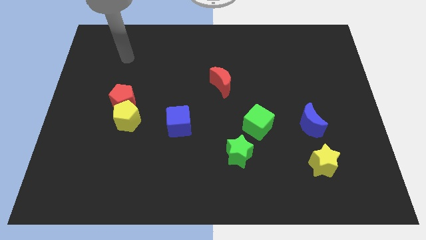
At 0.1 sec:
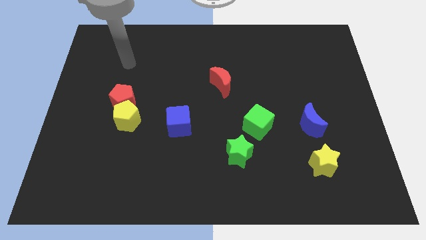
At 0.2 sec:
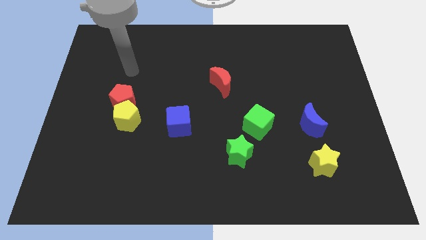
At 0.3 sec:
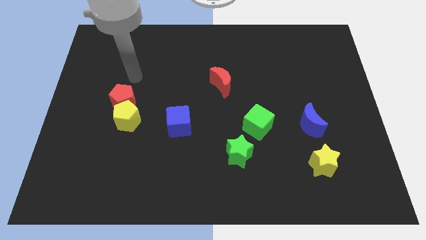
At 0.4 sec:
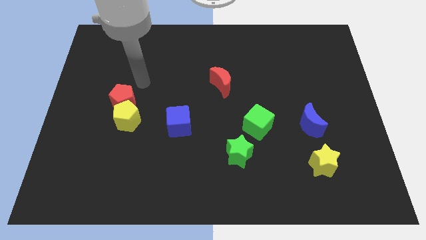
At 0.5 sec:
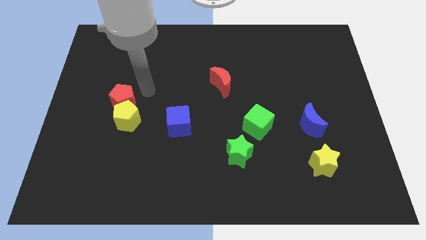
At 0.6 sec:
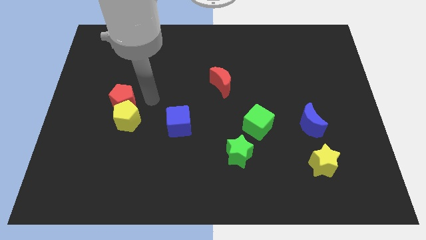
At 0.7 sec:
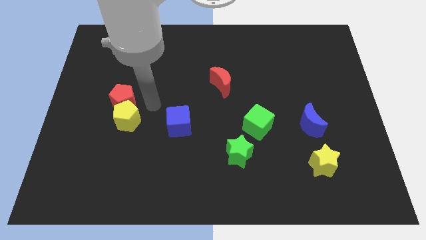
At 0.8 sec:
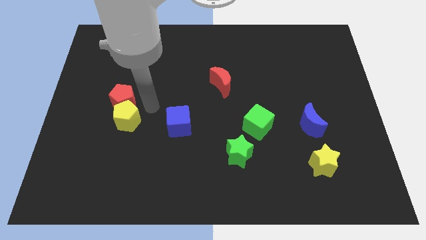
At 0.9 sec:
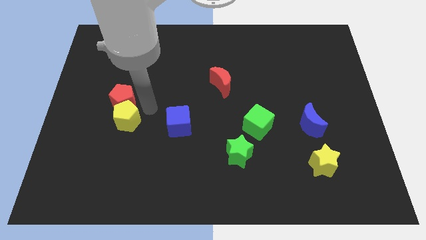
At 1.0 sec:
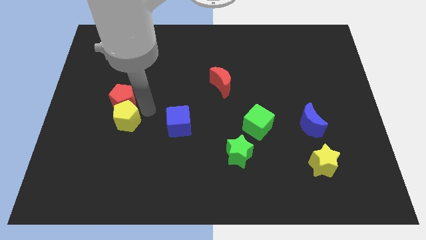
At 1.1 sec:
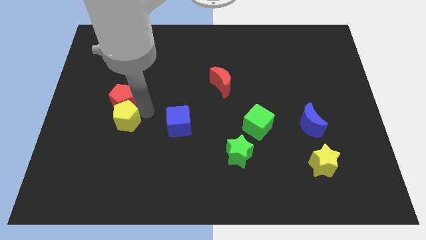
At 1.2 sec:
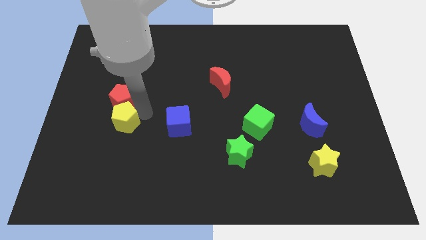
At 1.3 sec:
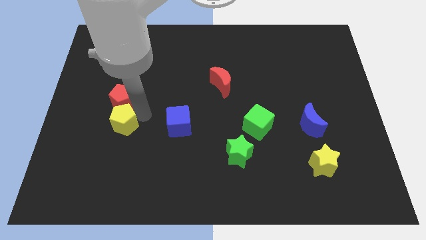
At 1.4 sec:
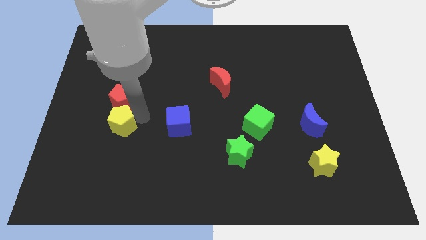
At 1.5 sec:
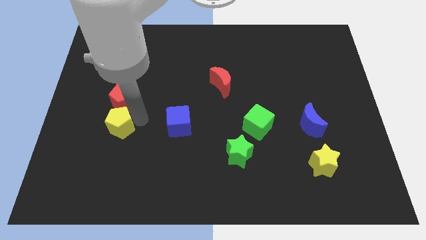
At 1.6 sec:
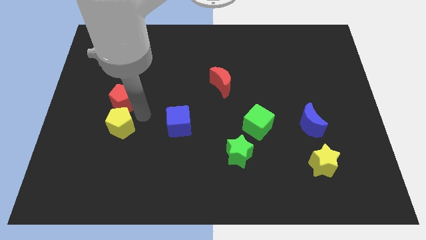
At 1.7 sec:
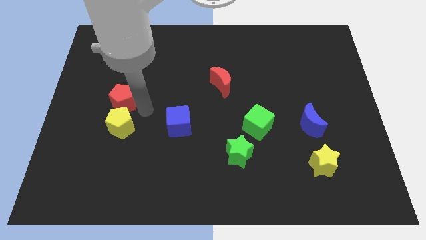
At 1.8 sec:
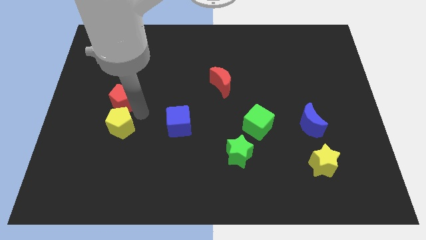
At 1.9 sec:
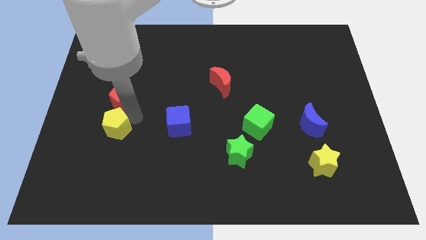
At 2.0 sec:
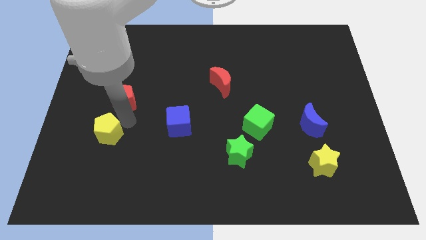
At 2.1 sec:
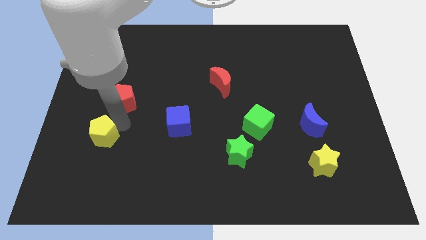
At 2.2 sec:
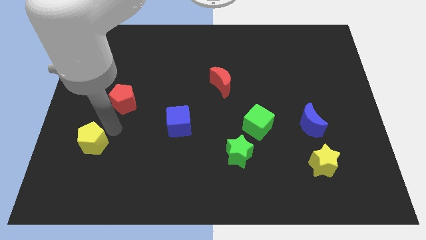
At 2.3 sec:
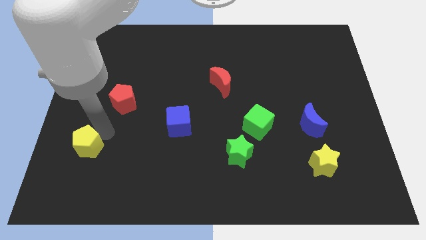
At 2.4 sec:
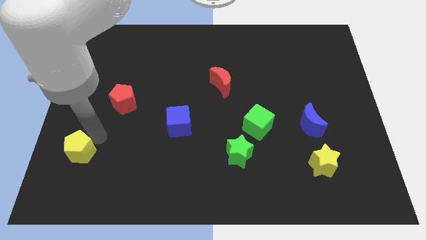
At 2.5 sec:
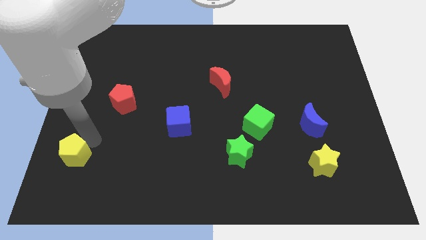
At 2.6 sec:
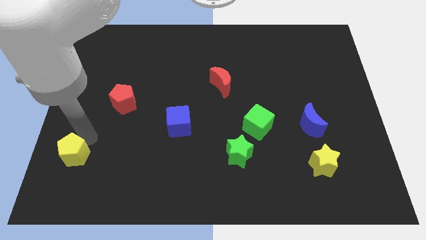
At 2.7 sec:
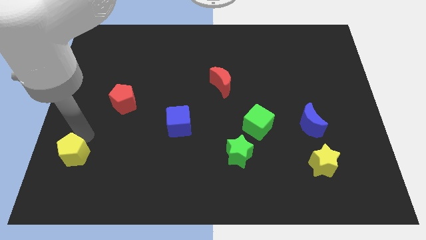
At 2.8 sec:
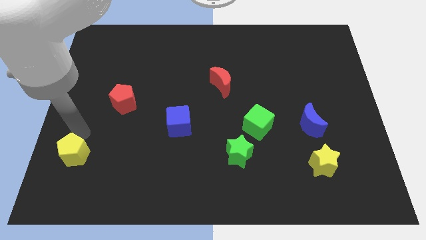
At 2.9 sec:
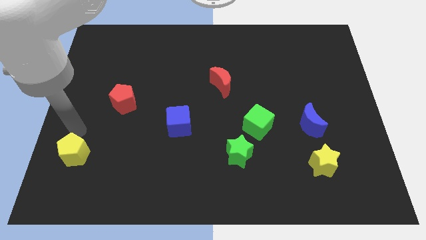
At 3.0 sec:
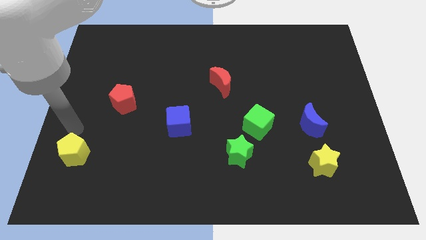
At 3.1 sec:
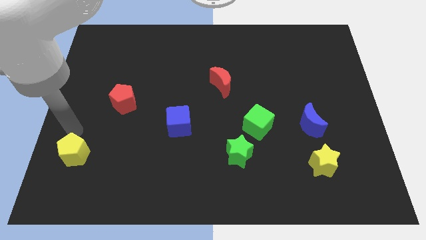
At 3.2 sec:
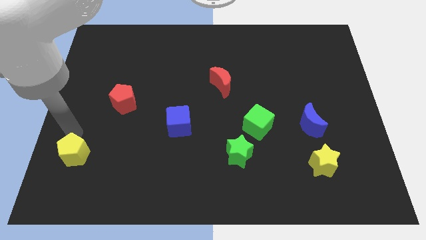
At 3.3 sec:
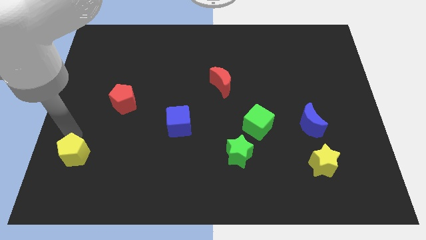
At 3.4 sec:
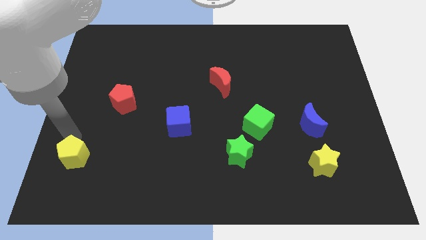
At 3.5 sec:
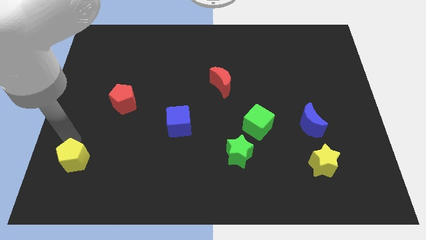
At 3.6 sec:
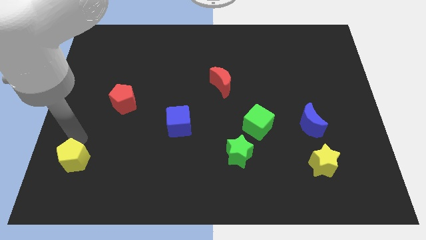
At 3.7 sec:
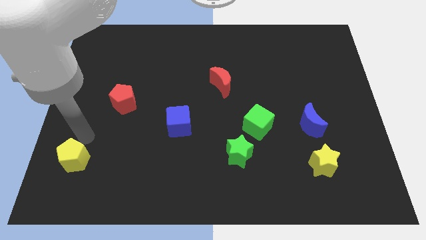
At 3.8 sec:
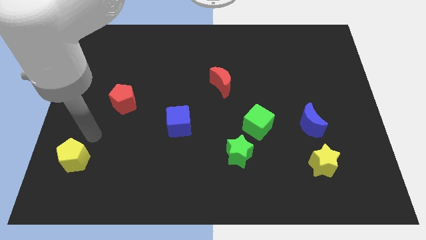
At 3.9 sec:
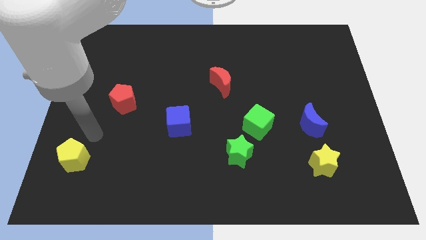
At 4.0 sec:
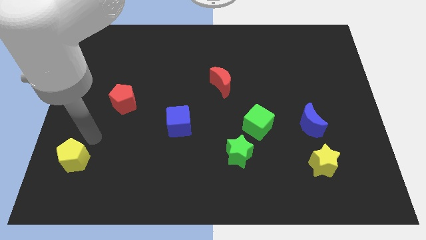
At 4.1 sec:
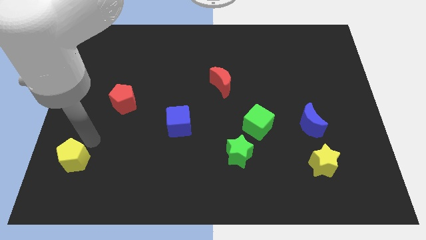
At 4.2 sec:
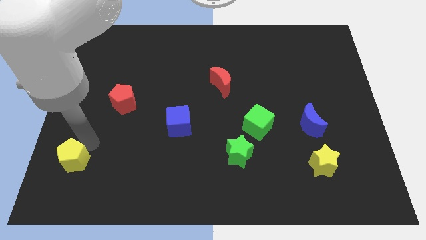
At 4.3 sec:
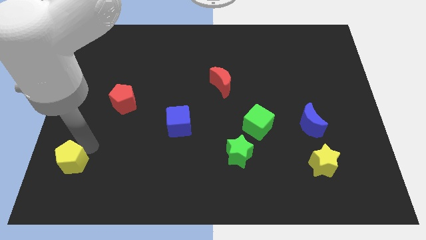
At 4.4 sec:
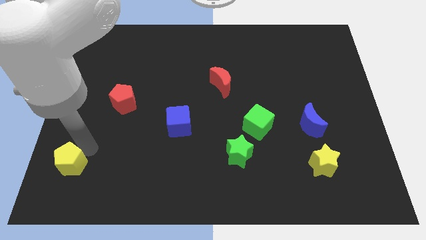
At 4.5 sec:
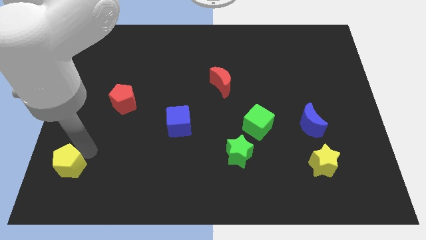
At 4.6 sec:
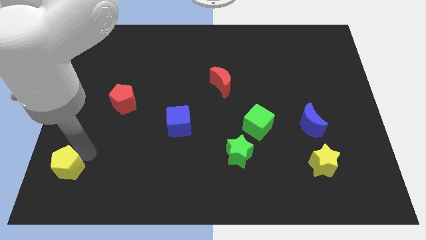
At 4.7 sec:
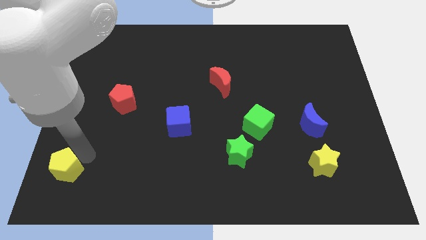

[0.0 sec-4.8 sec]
push the yellow pentagon to the lower left corner

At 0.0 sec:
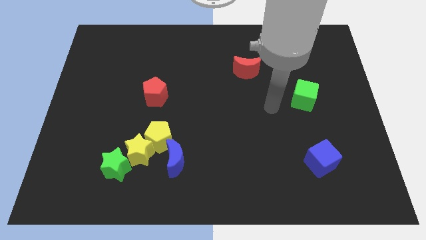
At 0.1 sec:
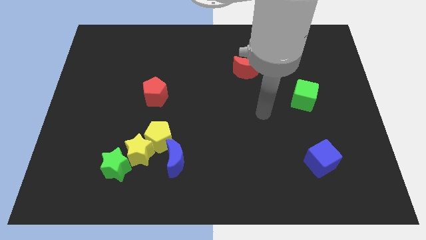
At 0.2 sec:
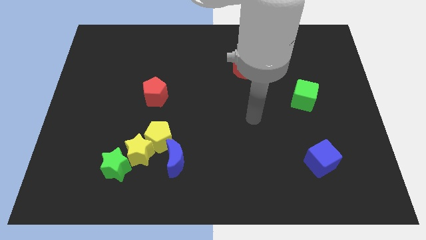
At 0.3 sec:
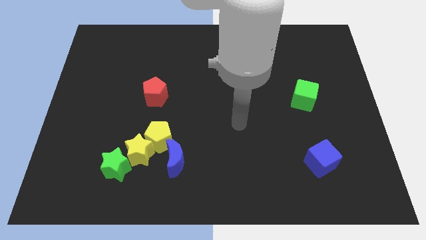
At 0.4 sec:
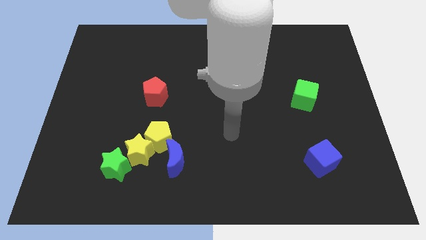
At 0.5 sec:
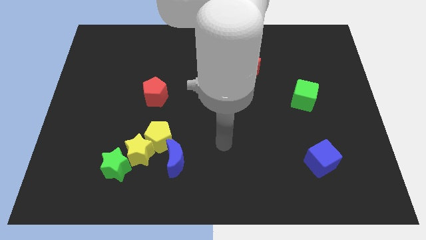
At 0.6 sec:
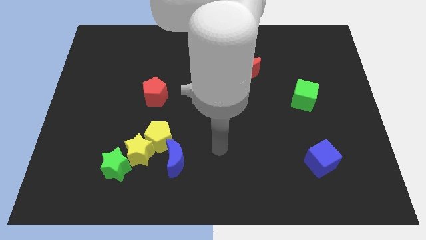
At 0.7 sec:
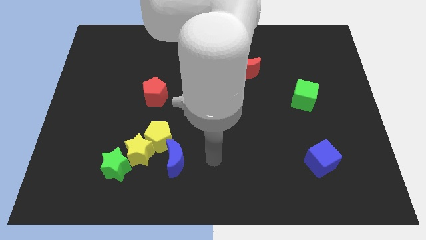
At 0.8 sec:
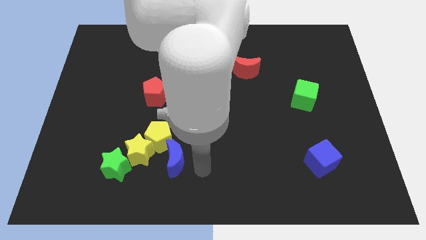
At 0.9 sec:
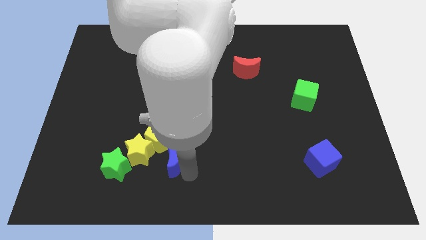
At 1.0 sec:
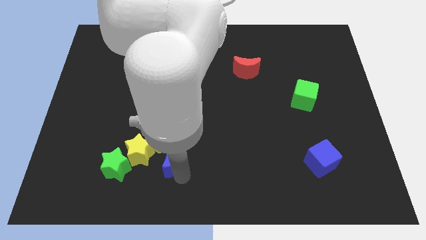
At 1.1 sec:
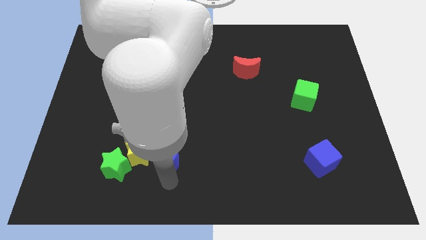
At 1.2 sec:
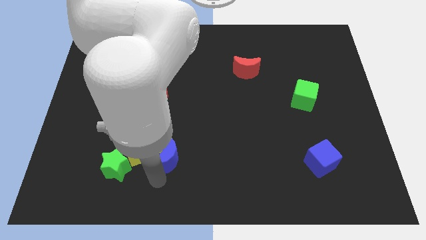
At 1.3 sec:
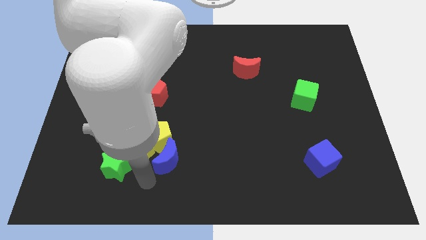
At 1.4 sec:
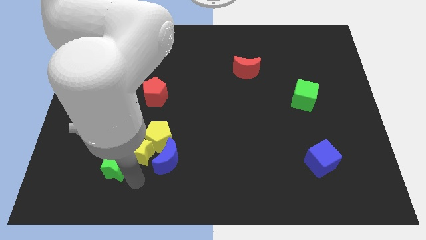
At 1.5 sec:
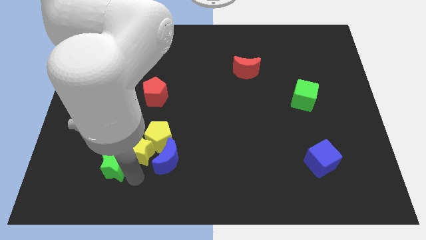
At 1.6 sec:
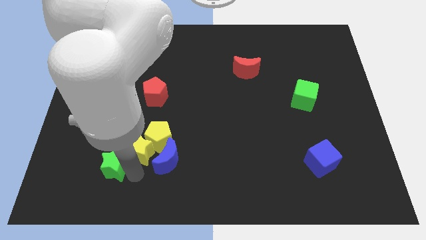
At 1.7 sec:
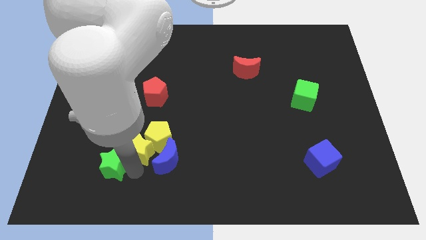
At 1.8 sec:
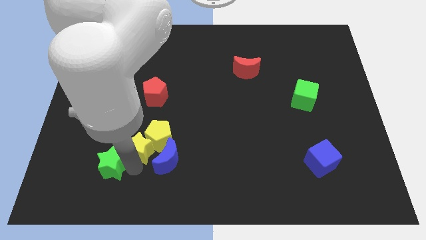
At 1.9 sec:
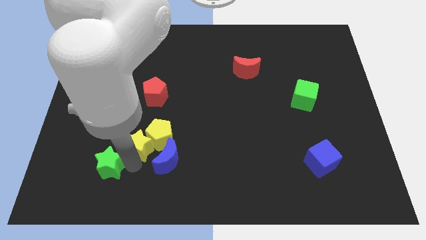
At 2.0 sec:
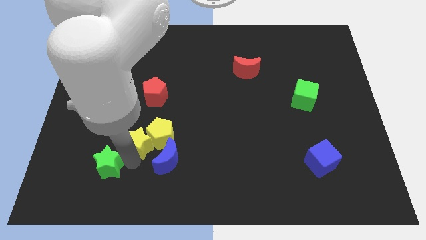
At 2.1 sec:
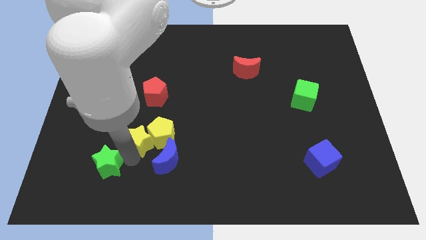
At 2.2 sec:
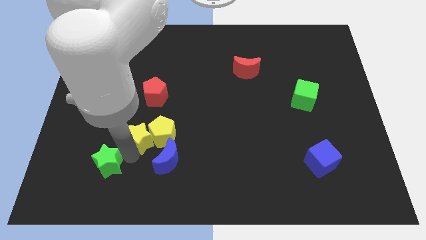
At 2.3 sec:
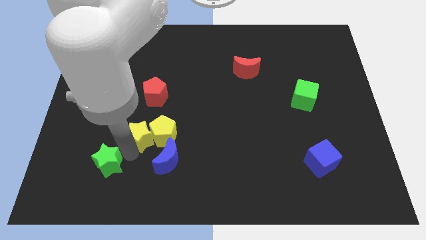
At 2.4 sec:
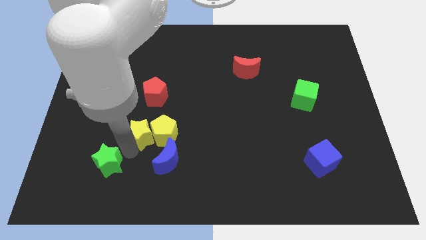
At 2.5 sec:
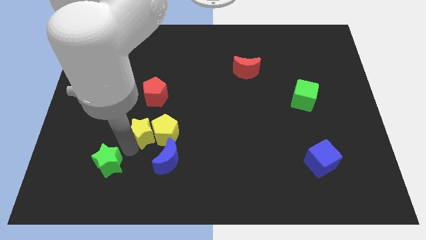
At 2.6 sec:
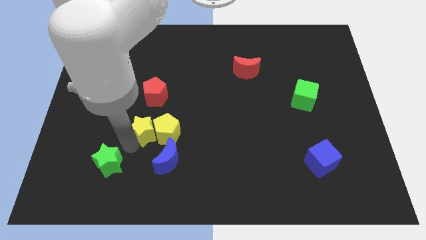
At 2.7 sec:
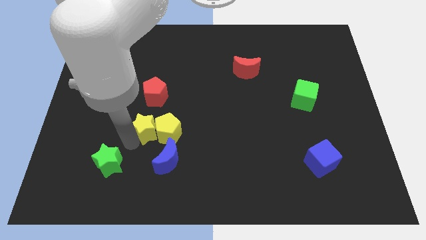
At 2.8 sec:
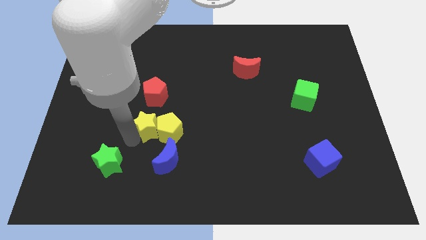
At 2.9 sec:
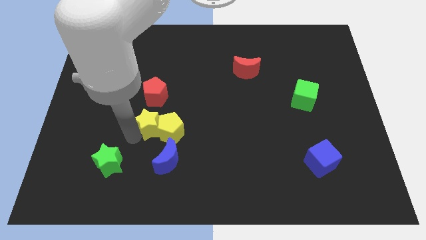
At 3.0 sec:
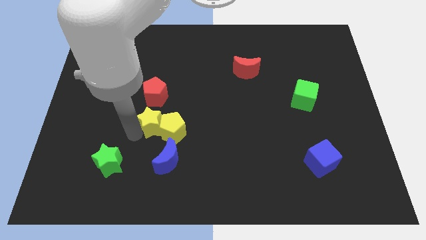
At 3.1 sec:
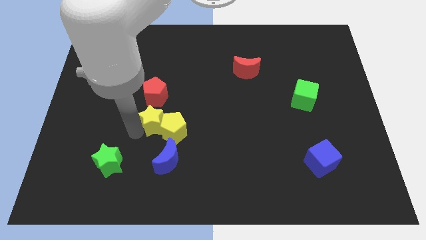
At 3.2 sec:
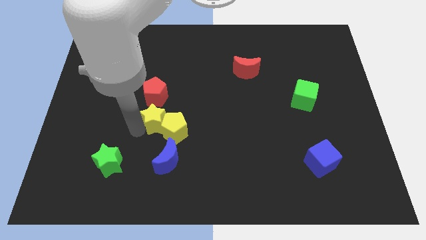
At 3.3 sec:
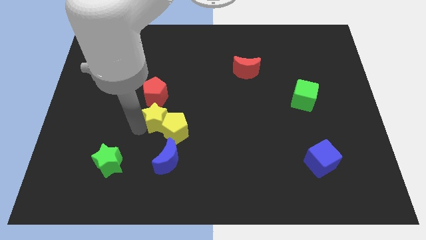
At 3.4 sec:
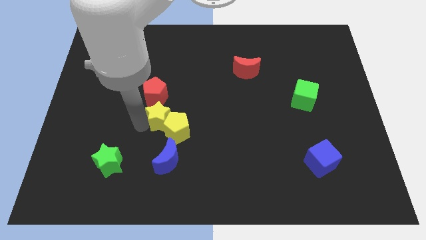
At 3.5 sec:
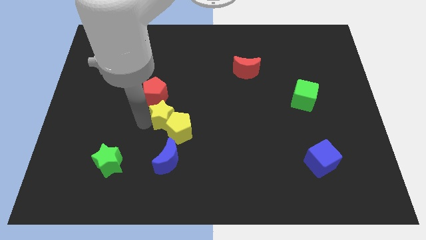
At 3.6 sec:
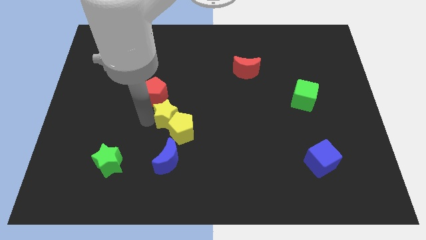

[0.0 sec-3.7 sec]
slide the yellow star to the center
